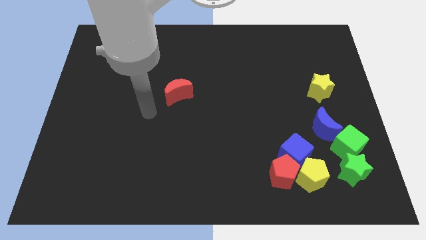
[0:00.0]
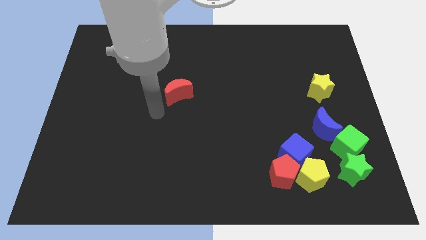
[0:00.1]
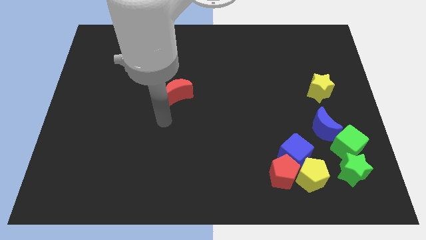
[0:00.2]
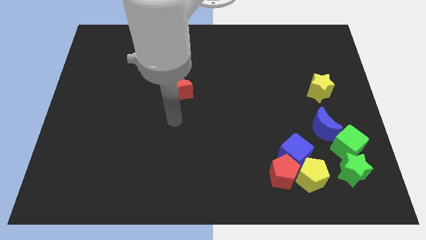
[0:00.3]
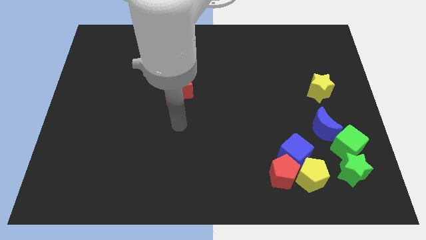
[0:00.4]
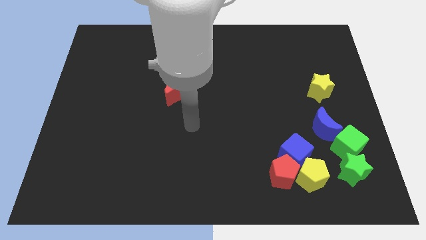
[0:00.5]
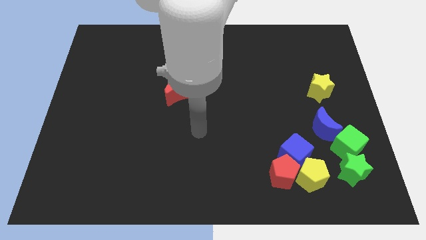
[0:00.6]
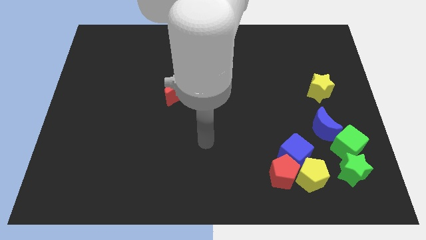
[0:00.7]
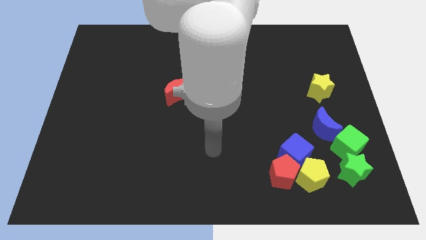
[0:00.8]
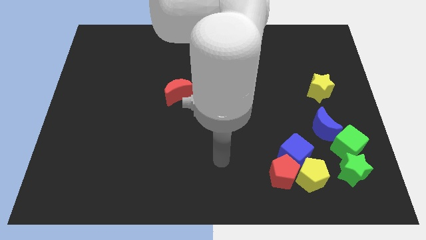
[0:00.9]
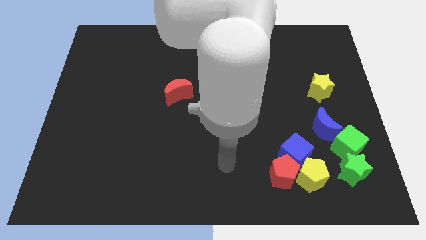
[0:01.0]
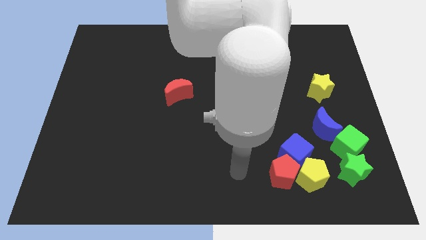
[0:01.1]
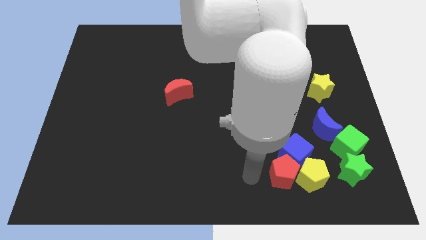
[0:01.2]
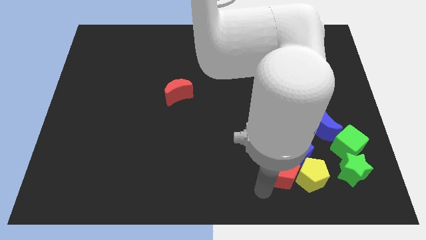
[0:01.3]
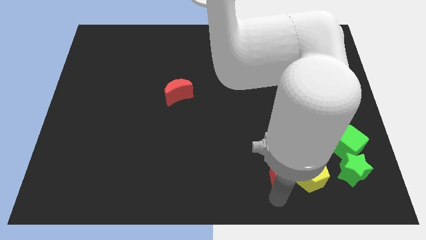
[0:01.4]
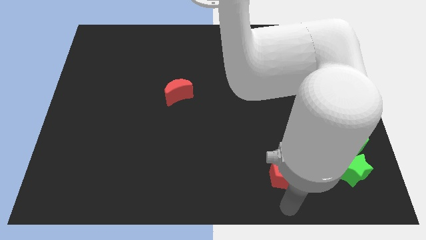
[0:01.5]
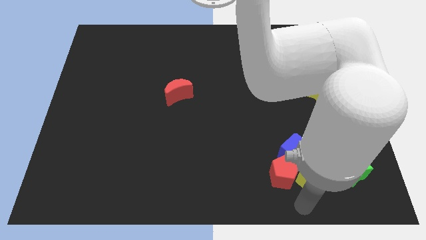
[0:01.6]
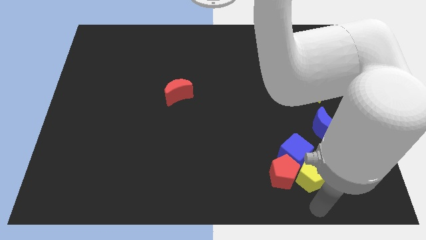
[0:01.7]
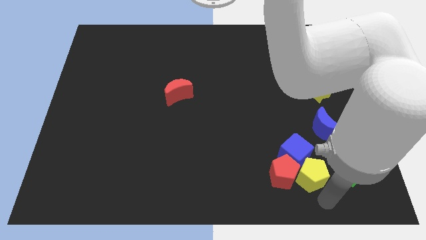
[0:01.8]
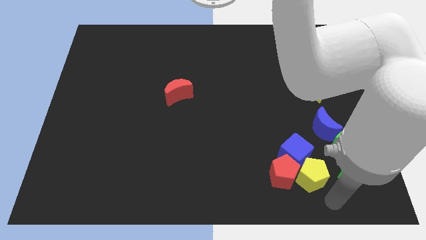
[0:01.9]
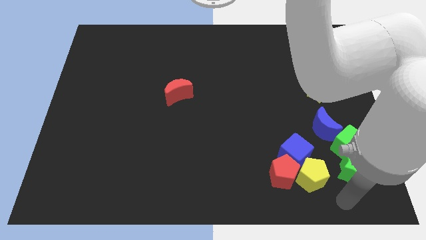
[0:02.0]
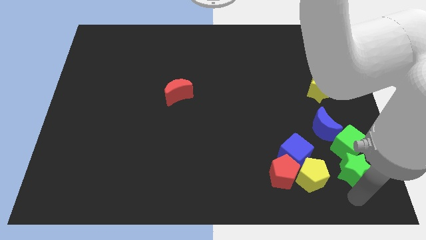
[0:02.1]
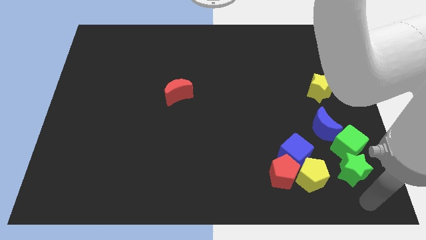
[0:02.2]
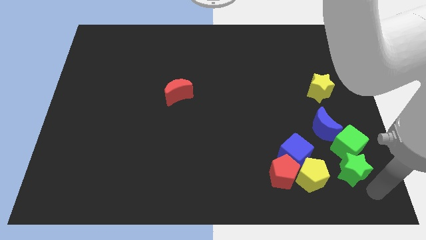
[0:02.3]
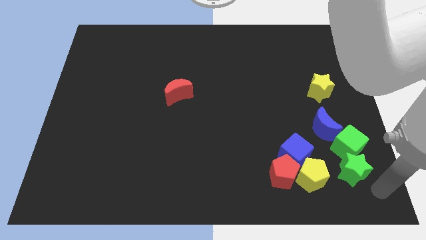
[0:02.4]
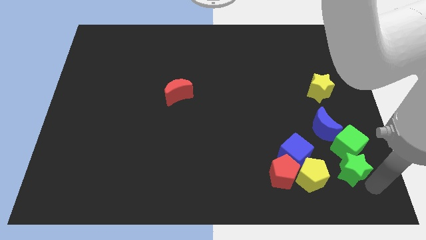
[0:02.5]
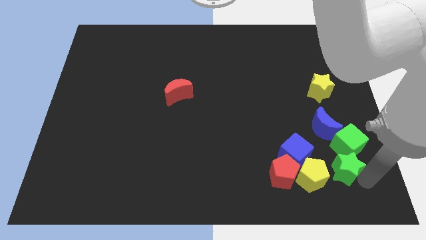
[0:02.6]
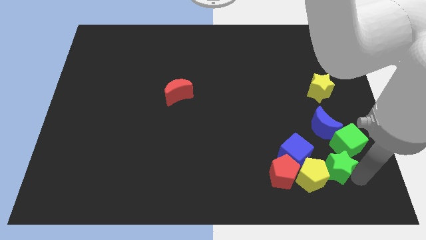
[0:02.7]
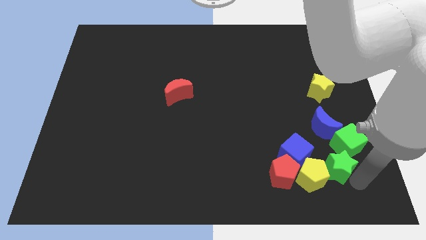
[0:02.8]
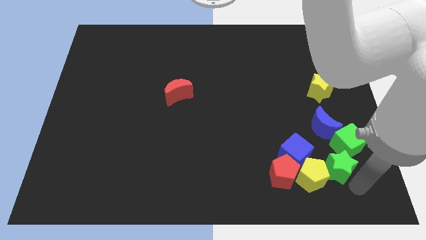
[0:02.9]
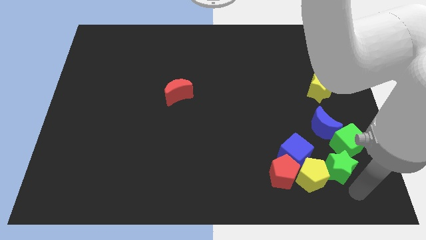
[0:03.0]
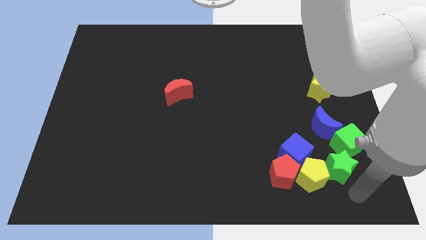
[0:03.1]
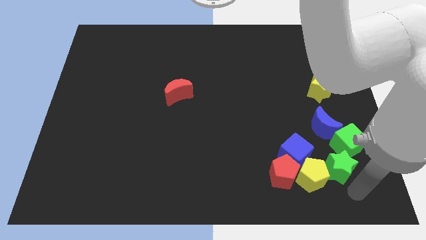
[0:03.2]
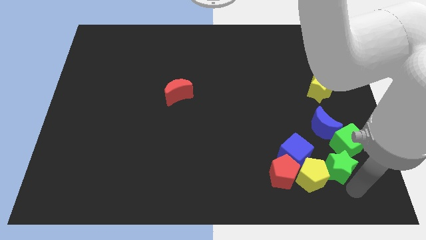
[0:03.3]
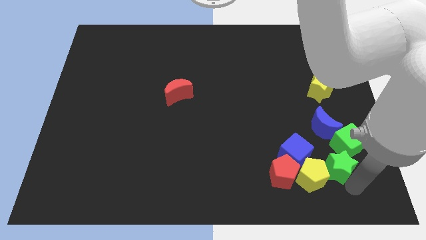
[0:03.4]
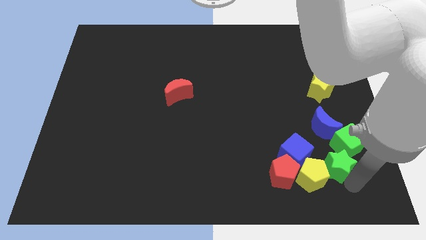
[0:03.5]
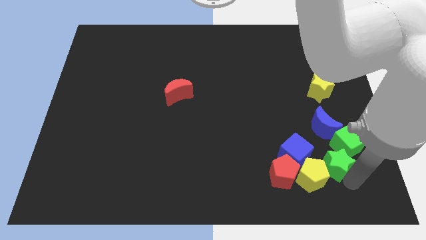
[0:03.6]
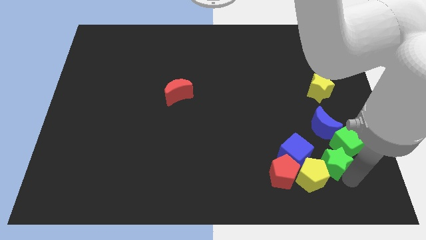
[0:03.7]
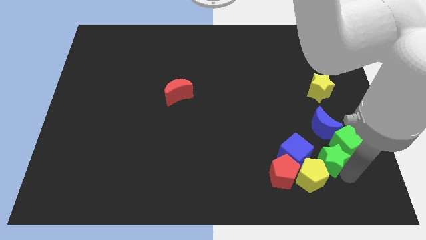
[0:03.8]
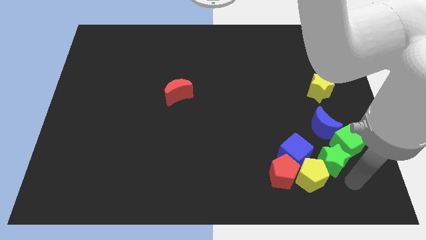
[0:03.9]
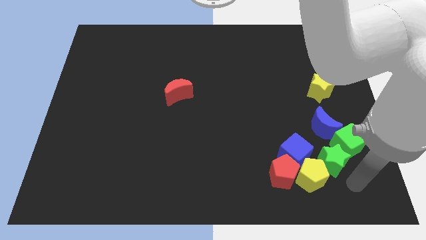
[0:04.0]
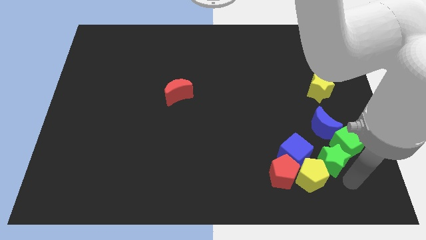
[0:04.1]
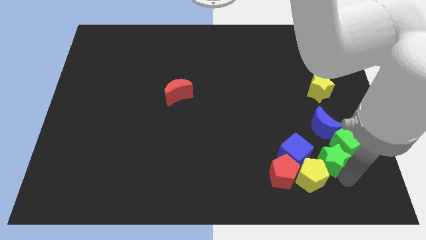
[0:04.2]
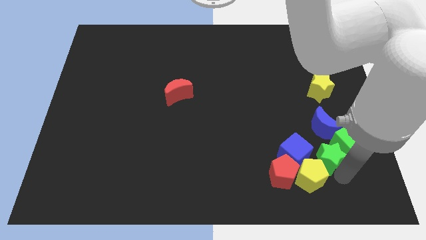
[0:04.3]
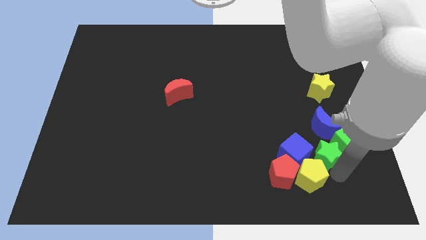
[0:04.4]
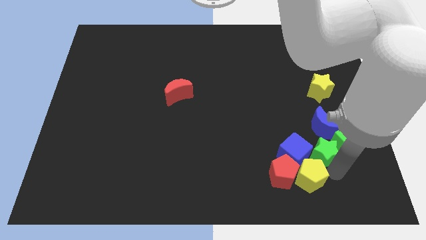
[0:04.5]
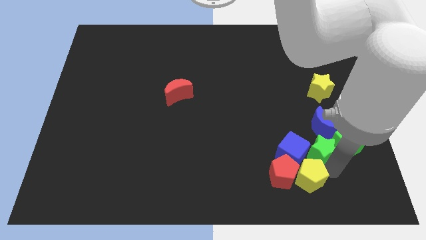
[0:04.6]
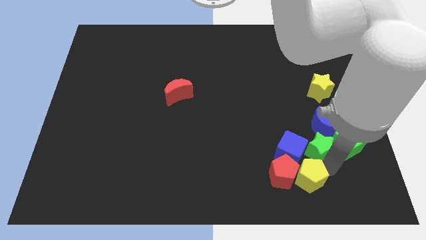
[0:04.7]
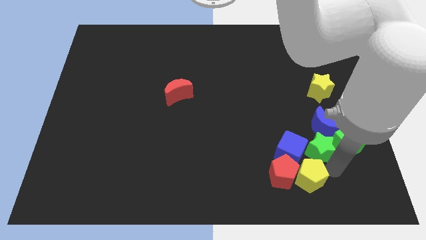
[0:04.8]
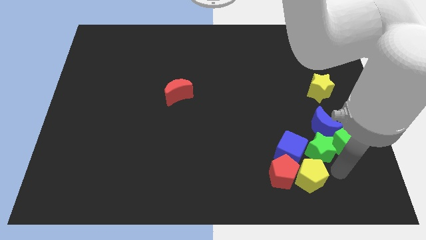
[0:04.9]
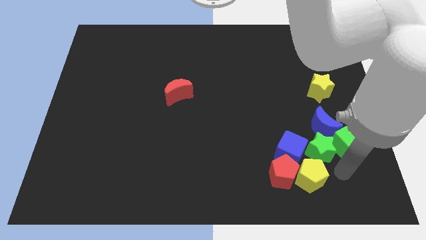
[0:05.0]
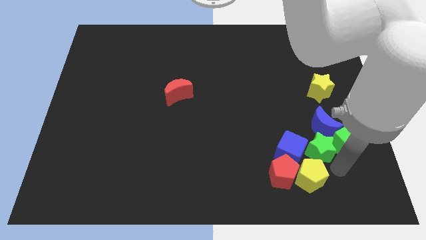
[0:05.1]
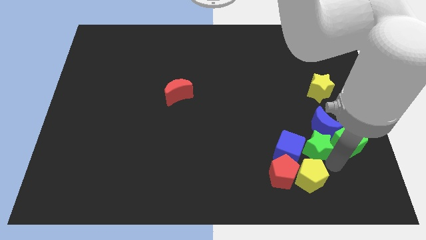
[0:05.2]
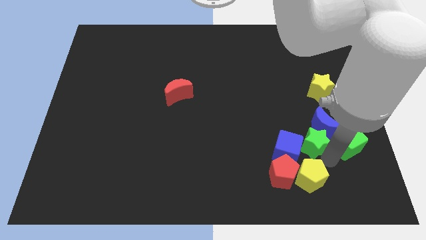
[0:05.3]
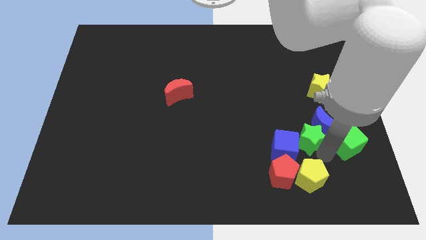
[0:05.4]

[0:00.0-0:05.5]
move the green star just left of the blue moon

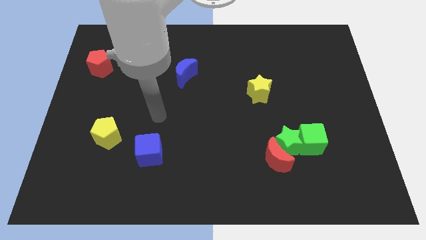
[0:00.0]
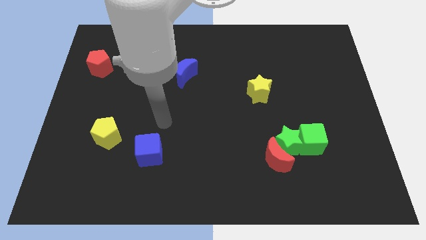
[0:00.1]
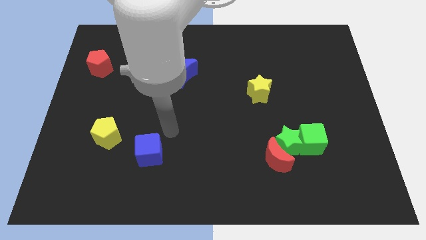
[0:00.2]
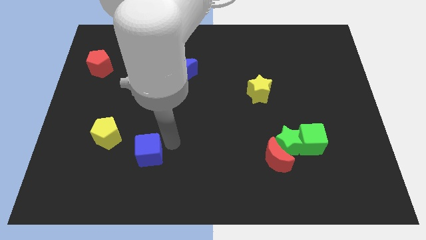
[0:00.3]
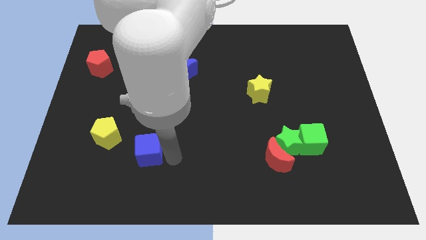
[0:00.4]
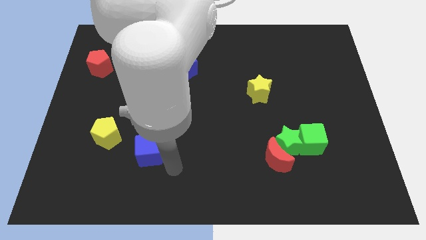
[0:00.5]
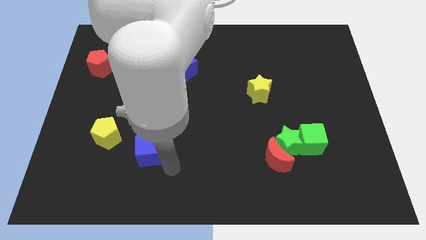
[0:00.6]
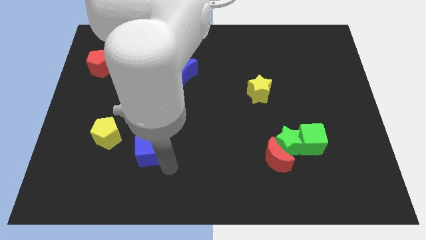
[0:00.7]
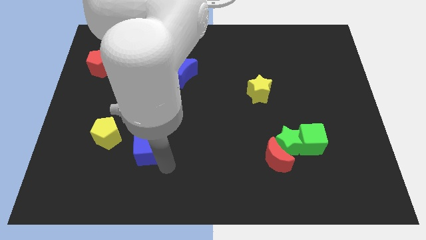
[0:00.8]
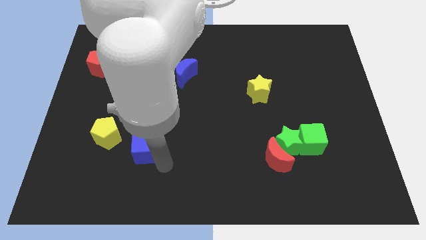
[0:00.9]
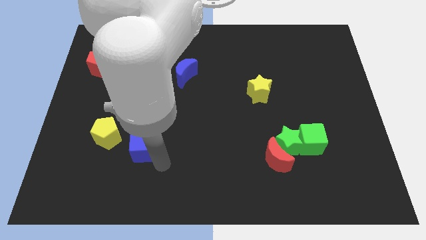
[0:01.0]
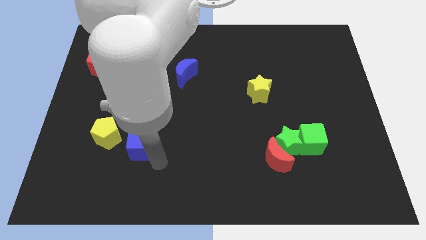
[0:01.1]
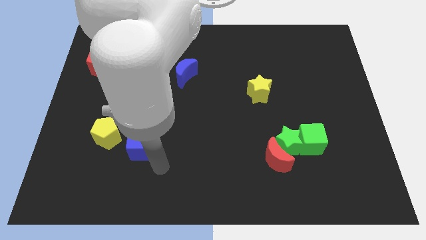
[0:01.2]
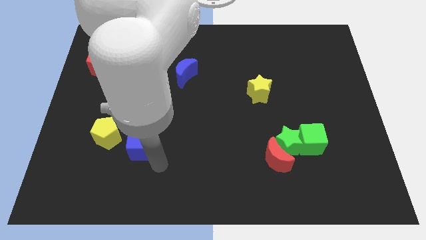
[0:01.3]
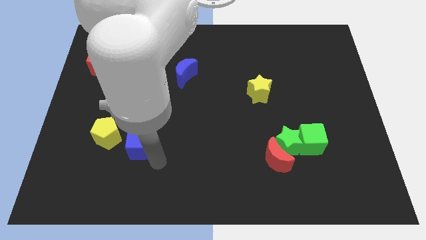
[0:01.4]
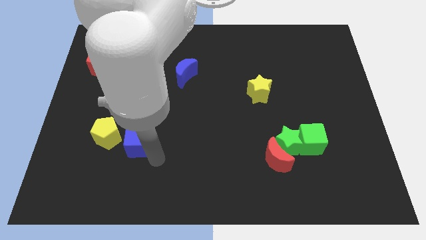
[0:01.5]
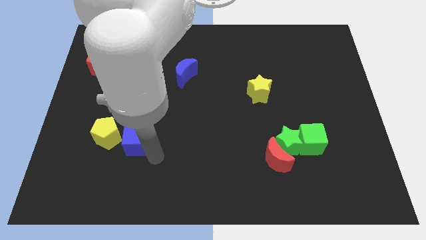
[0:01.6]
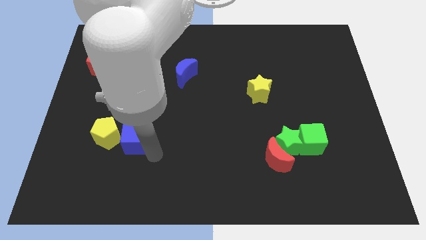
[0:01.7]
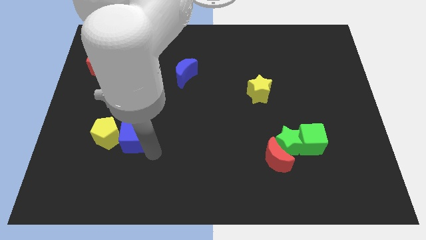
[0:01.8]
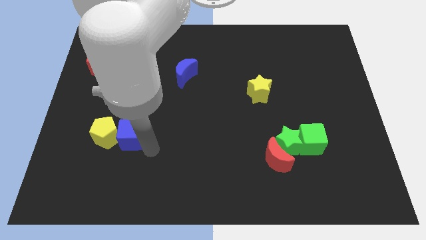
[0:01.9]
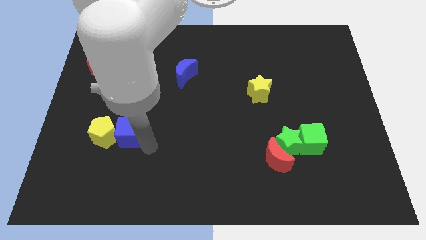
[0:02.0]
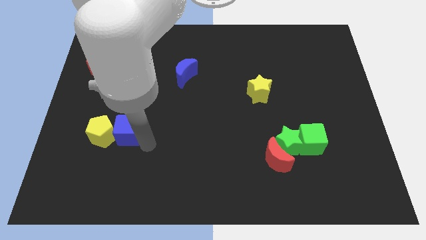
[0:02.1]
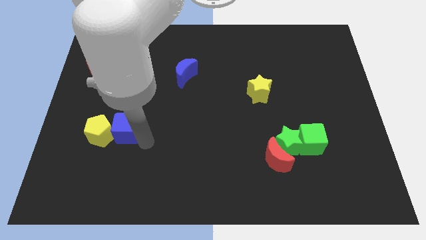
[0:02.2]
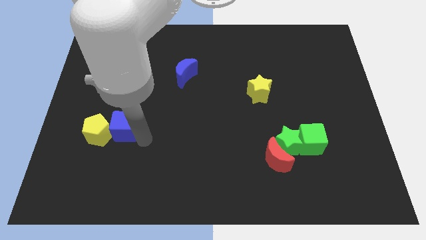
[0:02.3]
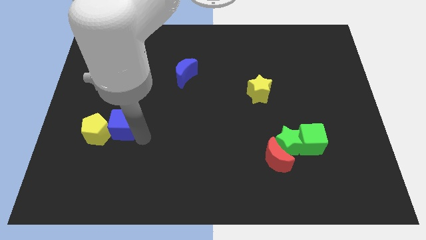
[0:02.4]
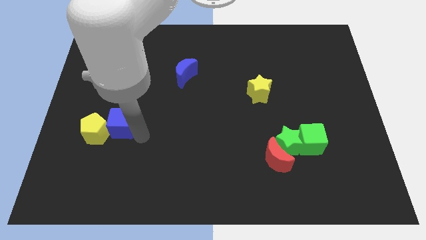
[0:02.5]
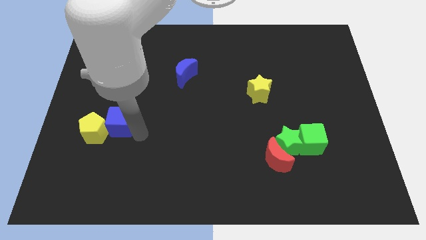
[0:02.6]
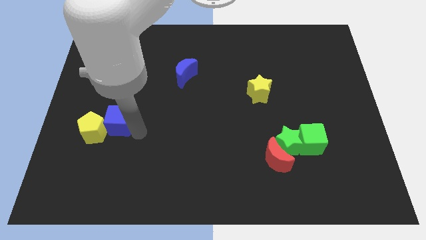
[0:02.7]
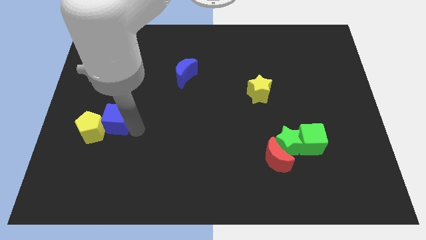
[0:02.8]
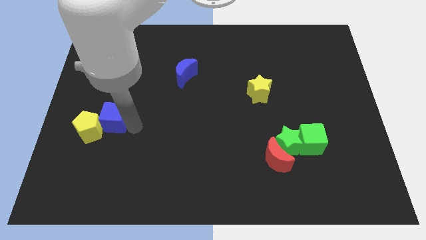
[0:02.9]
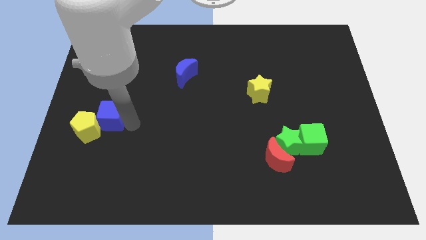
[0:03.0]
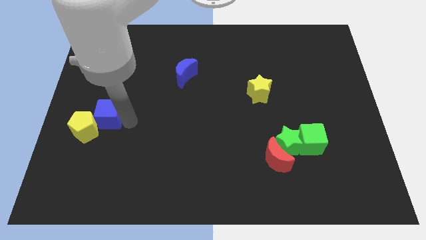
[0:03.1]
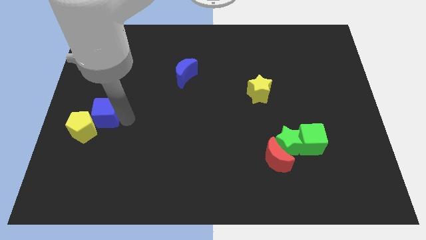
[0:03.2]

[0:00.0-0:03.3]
put the blue cube to the top side of the yellow pentagon
